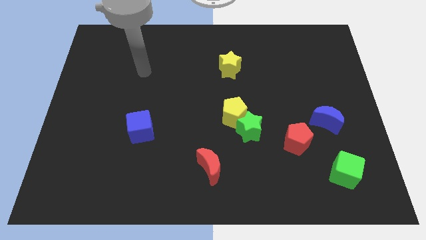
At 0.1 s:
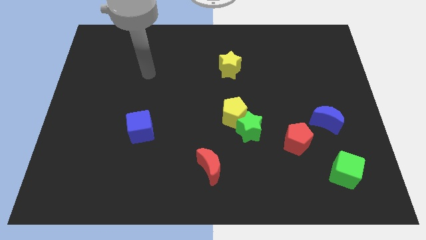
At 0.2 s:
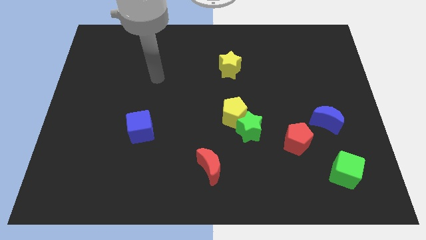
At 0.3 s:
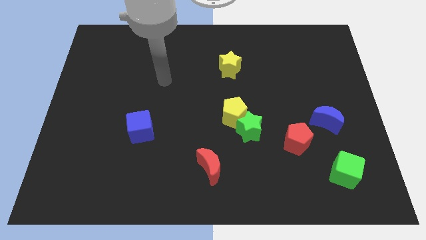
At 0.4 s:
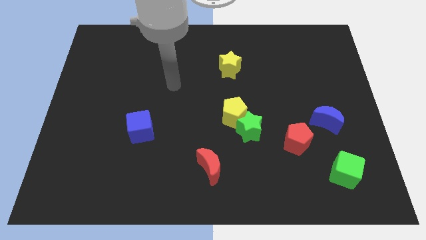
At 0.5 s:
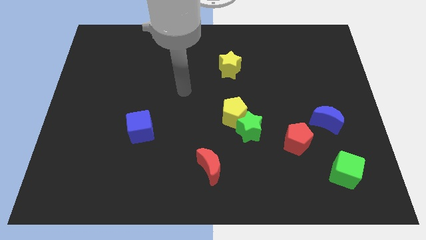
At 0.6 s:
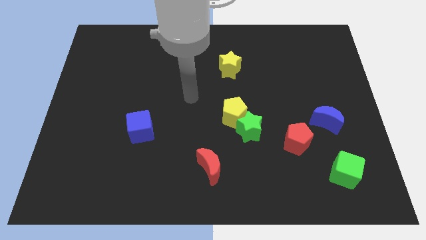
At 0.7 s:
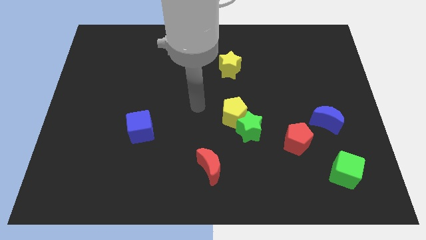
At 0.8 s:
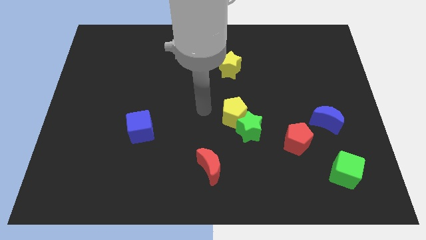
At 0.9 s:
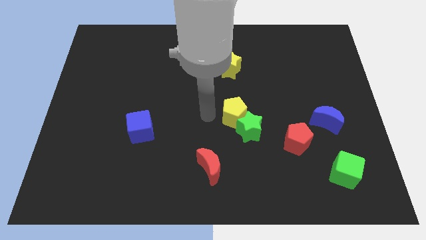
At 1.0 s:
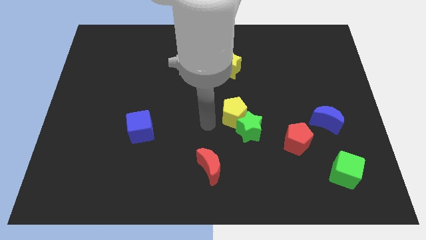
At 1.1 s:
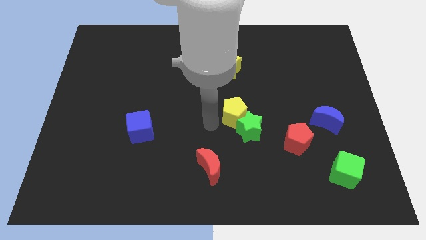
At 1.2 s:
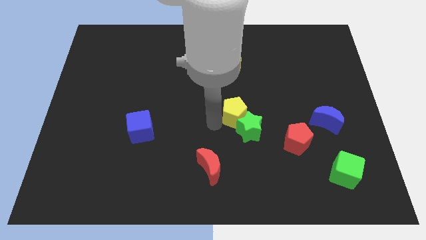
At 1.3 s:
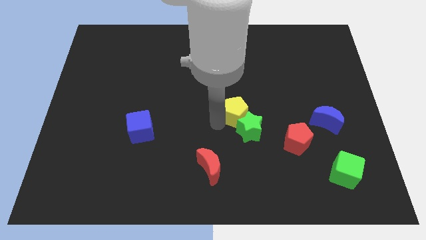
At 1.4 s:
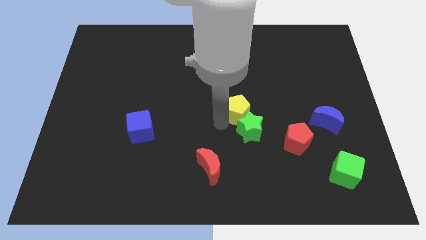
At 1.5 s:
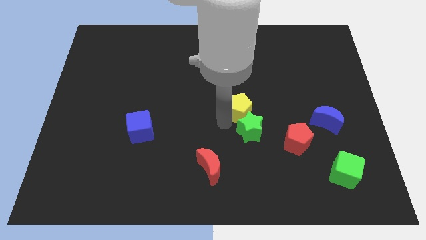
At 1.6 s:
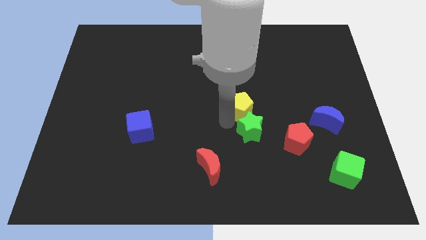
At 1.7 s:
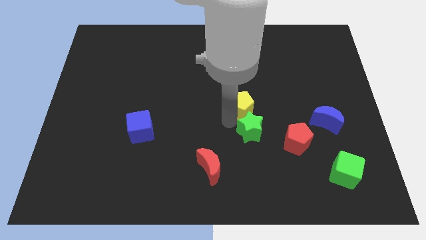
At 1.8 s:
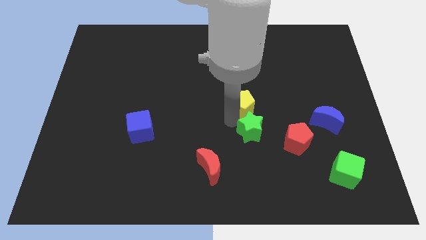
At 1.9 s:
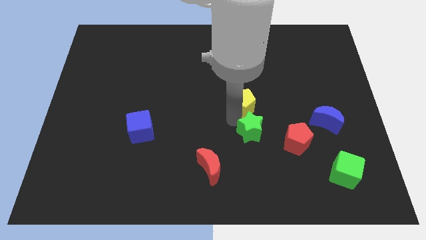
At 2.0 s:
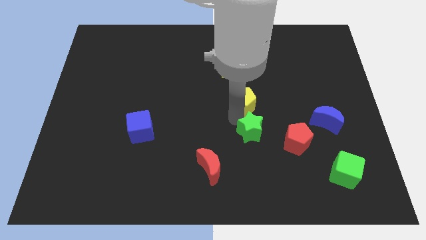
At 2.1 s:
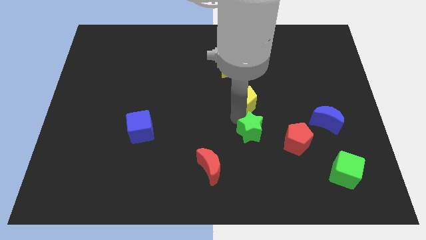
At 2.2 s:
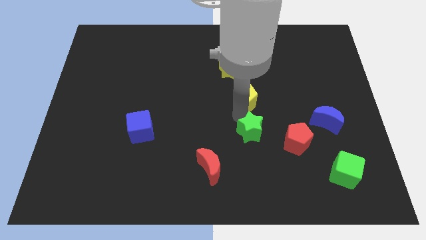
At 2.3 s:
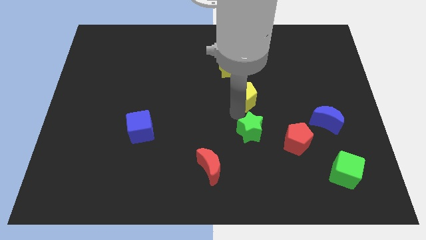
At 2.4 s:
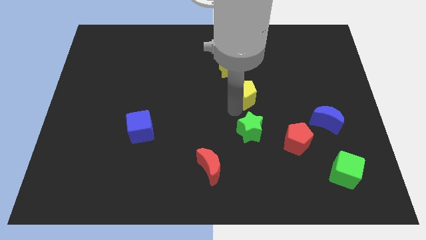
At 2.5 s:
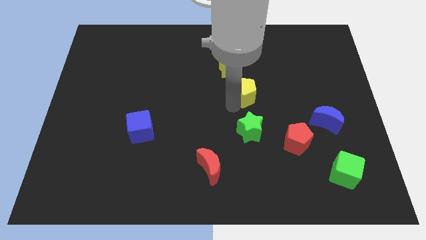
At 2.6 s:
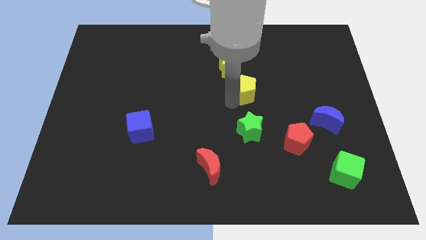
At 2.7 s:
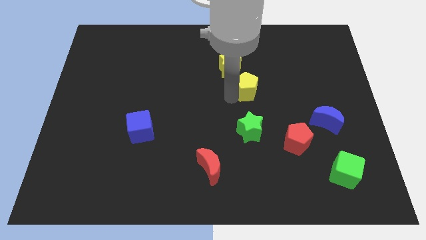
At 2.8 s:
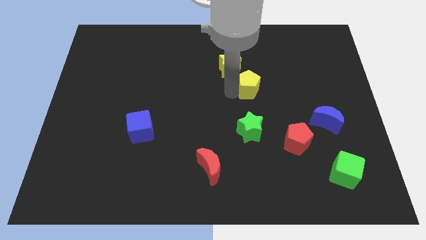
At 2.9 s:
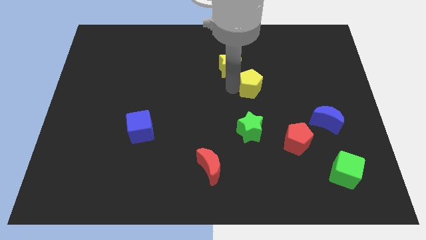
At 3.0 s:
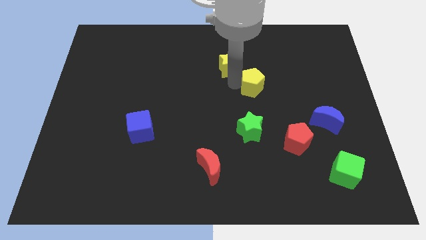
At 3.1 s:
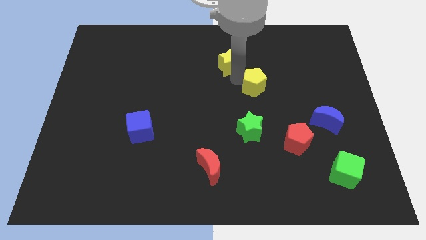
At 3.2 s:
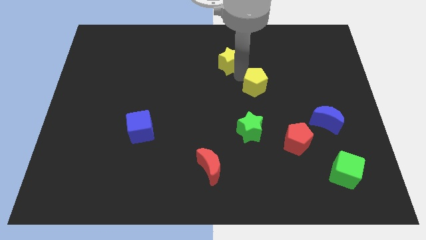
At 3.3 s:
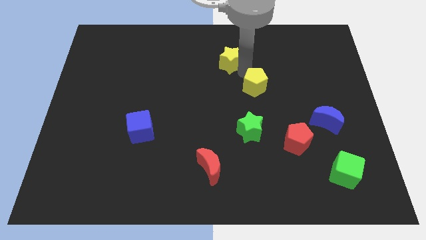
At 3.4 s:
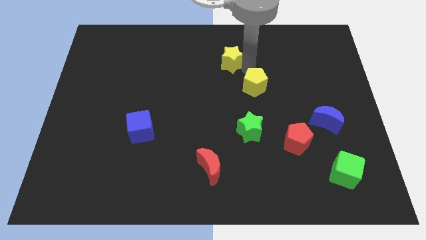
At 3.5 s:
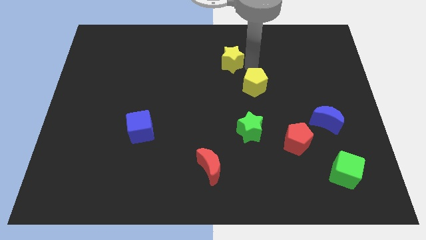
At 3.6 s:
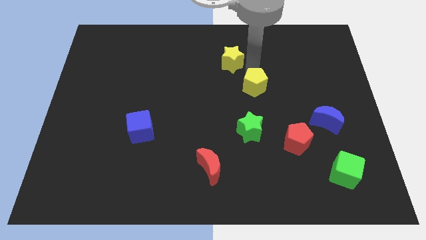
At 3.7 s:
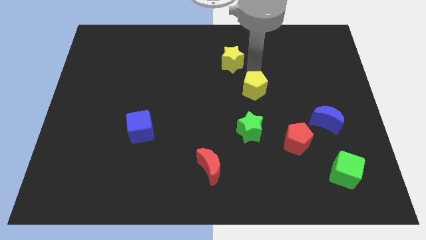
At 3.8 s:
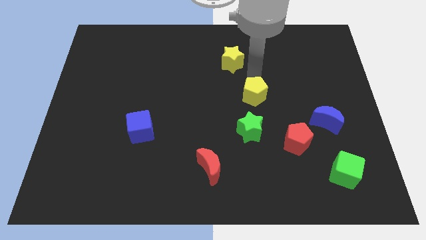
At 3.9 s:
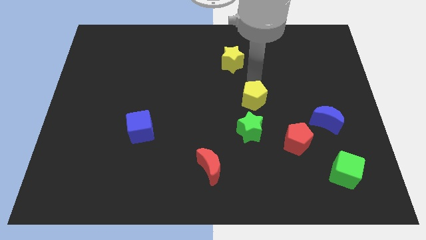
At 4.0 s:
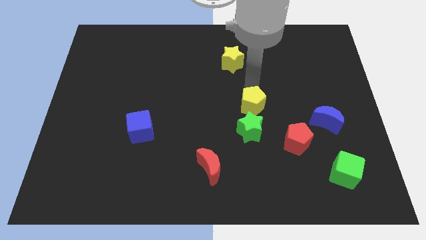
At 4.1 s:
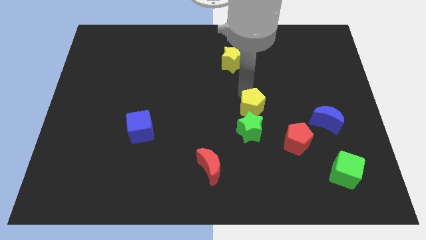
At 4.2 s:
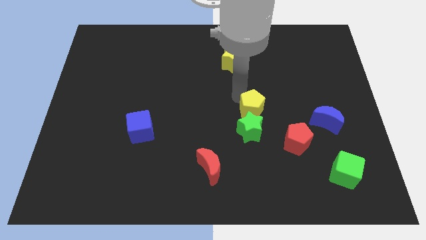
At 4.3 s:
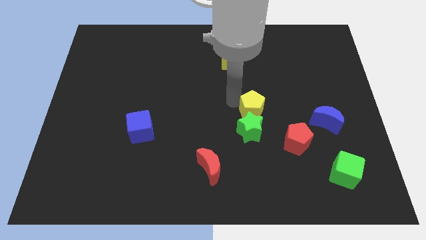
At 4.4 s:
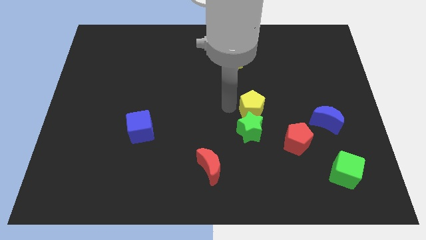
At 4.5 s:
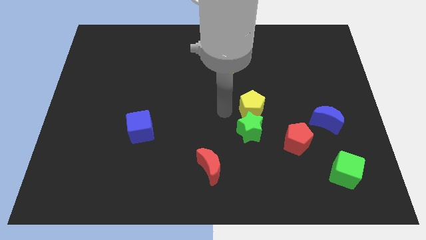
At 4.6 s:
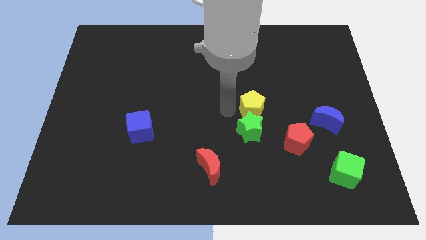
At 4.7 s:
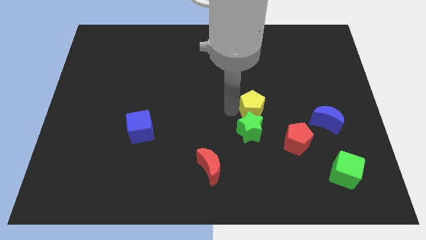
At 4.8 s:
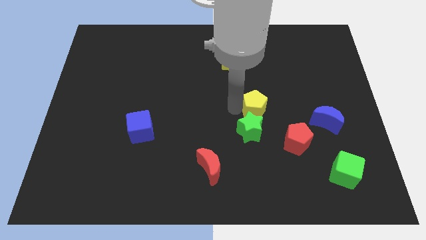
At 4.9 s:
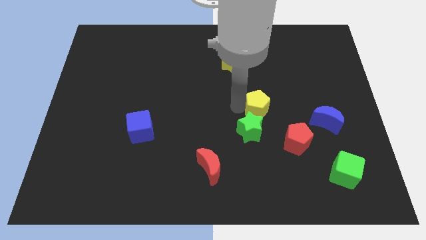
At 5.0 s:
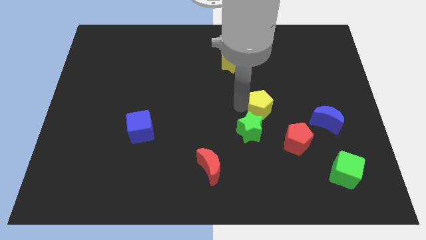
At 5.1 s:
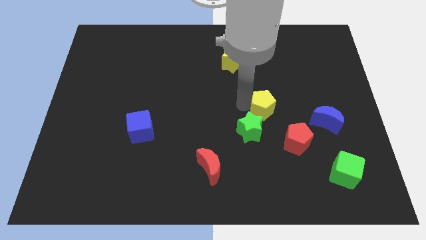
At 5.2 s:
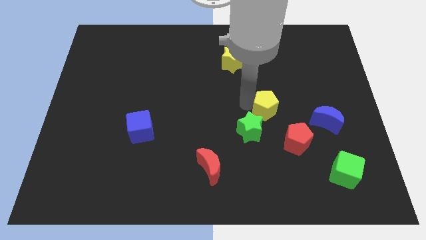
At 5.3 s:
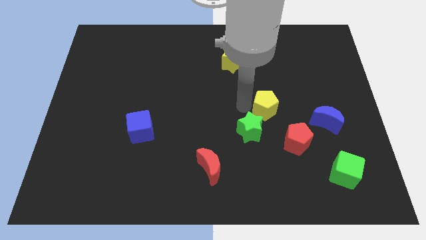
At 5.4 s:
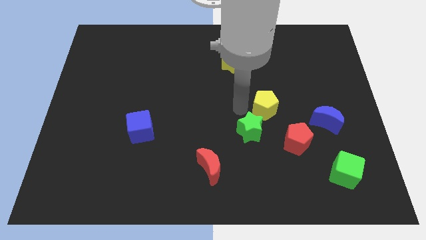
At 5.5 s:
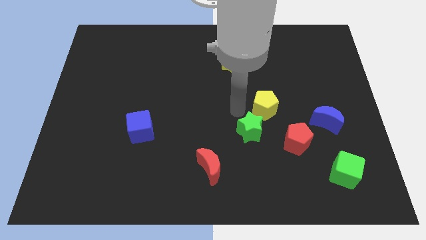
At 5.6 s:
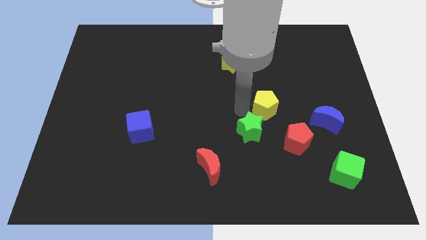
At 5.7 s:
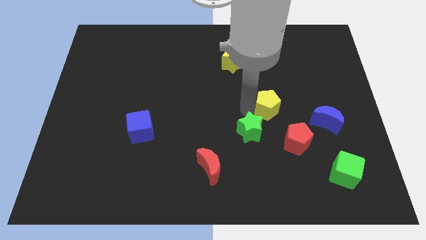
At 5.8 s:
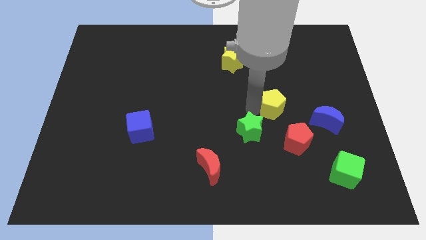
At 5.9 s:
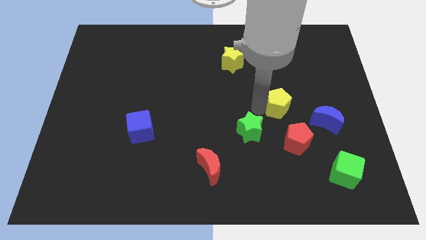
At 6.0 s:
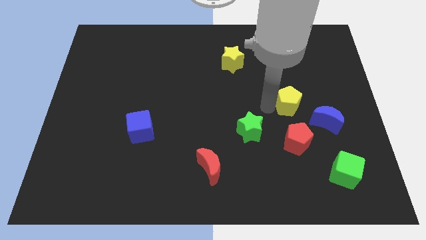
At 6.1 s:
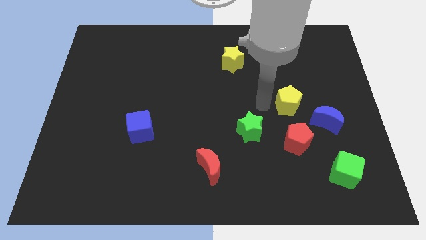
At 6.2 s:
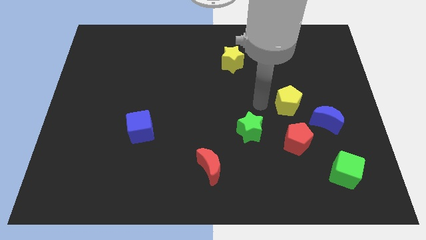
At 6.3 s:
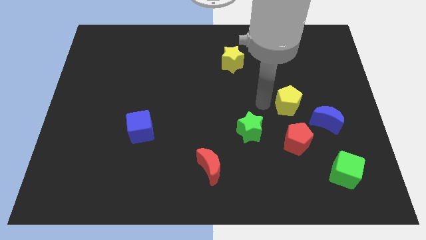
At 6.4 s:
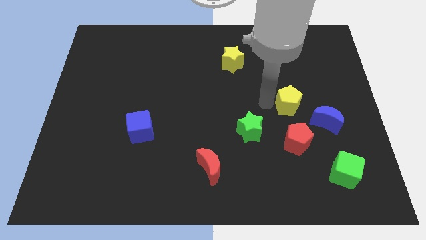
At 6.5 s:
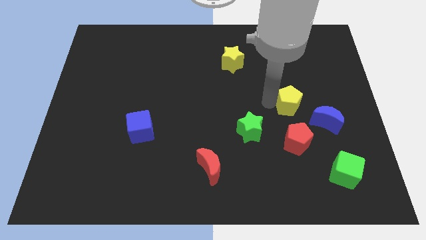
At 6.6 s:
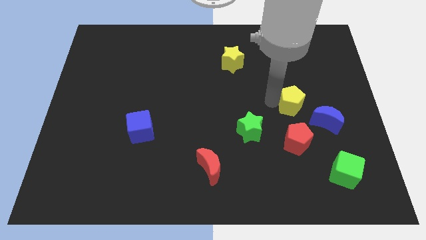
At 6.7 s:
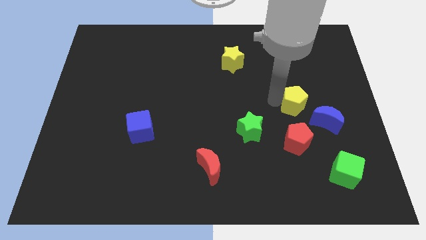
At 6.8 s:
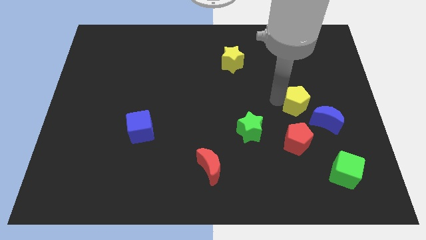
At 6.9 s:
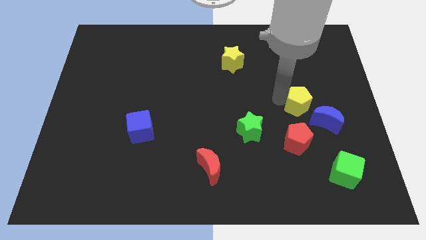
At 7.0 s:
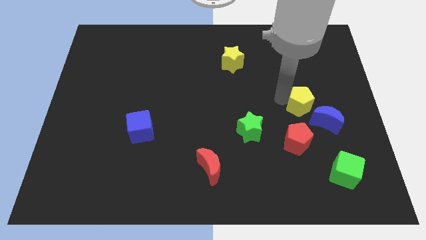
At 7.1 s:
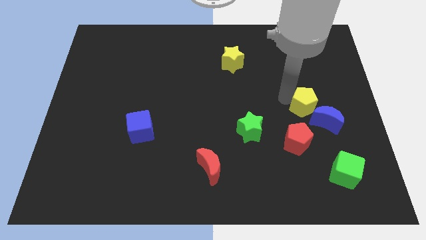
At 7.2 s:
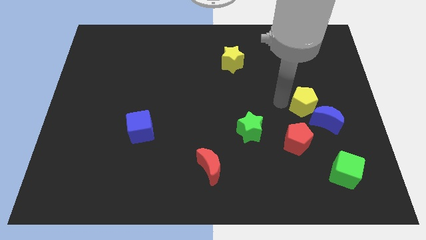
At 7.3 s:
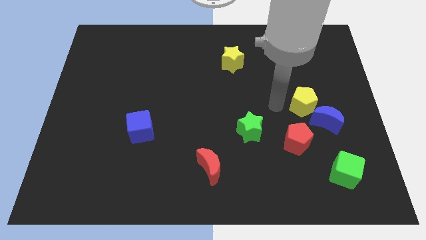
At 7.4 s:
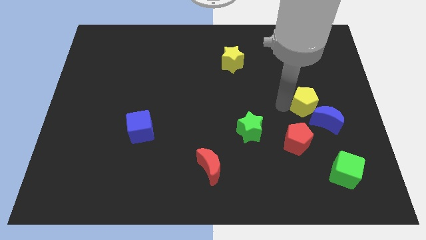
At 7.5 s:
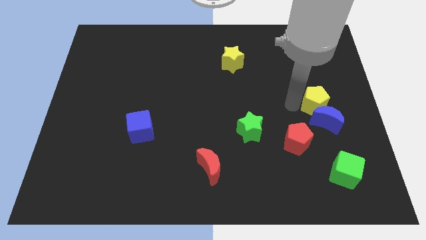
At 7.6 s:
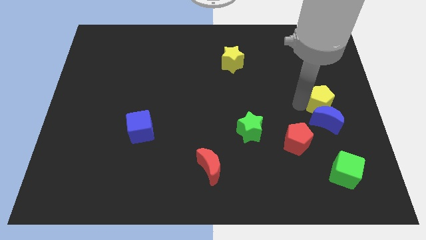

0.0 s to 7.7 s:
slide the yellow pentagon to the right side
